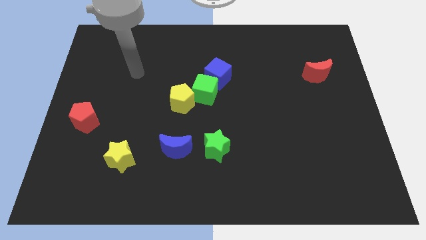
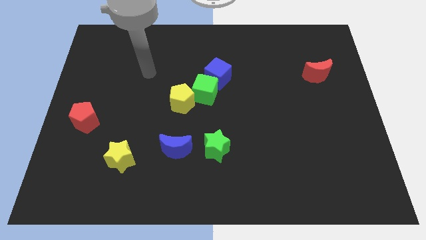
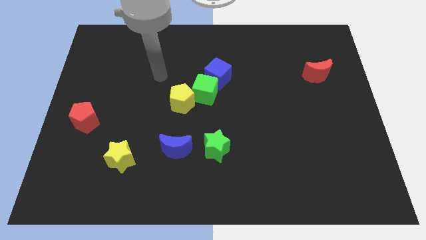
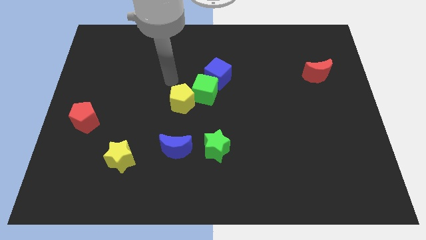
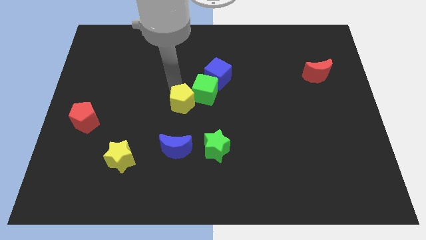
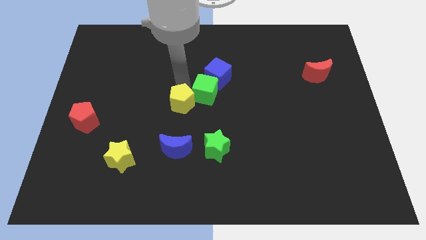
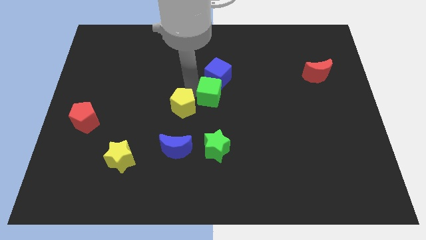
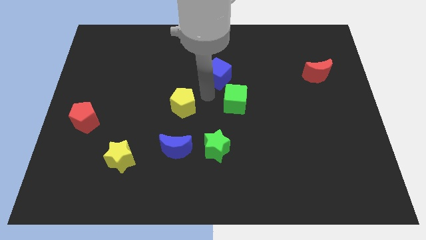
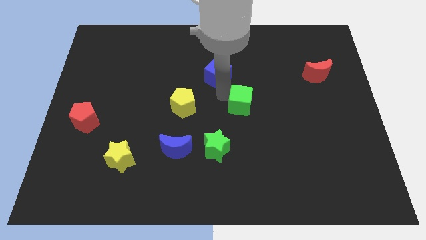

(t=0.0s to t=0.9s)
pull the blue cube apart from the green cube

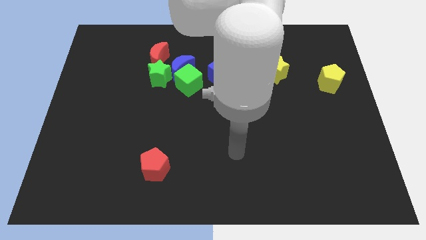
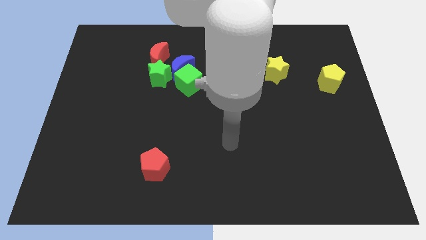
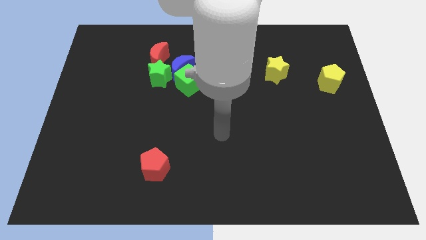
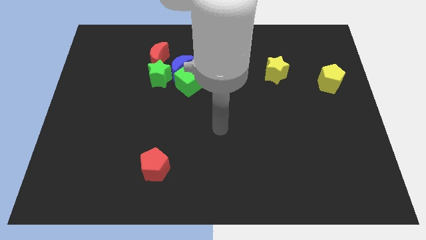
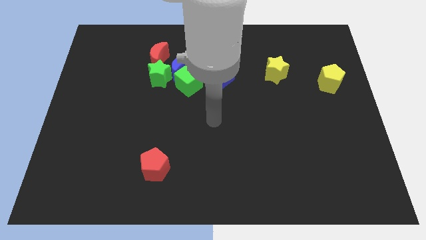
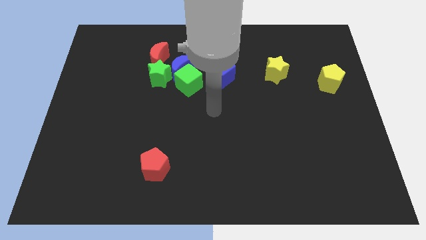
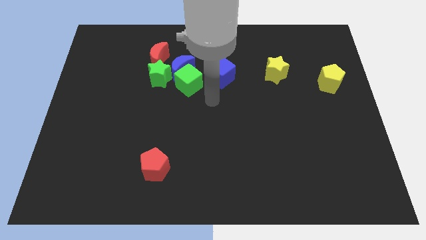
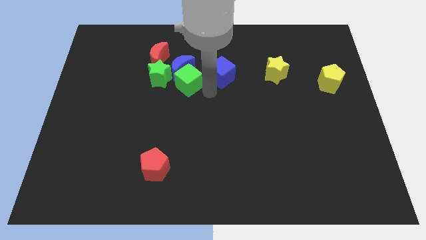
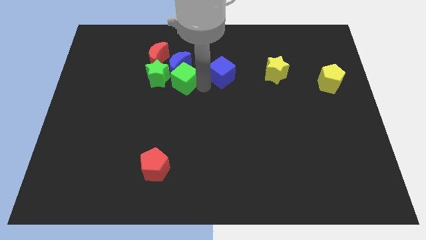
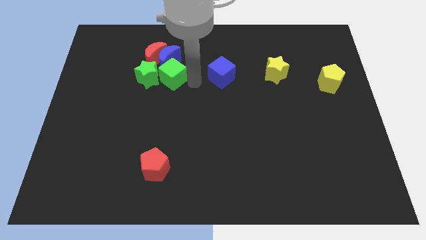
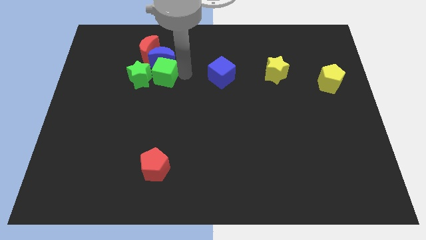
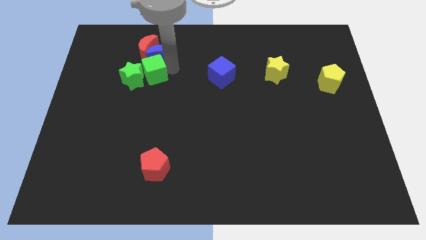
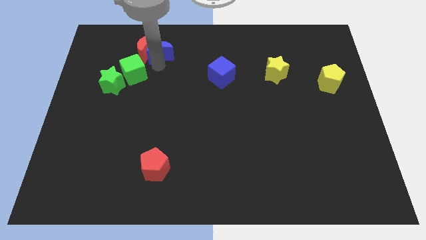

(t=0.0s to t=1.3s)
separate the green star from the blue moon, red moon, and green cube

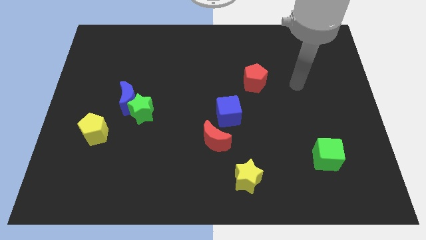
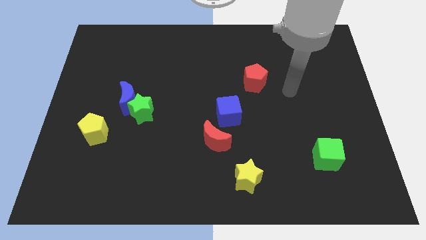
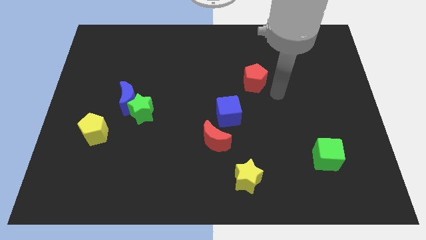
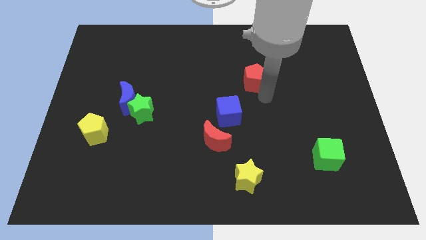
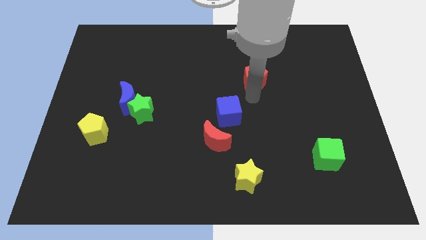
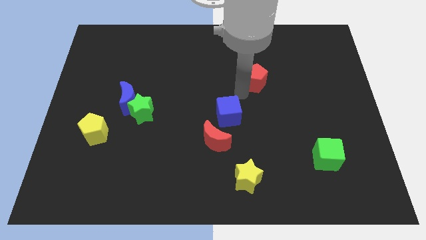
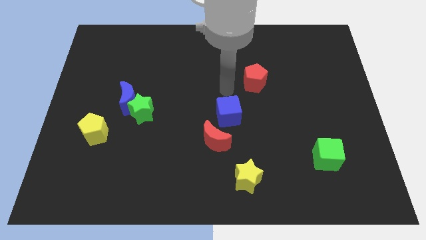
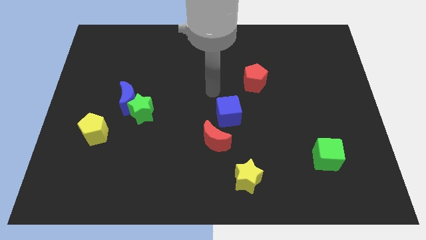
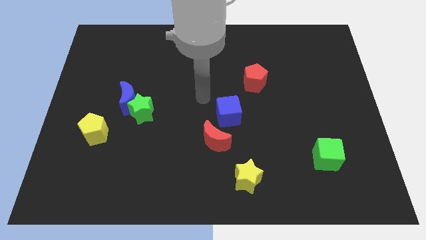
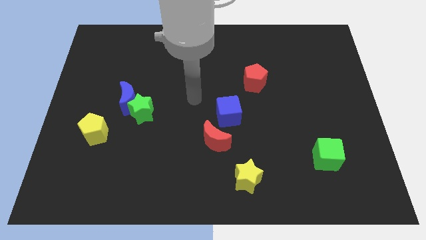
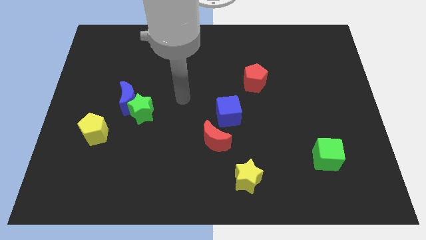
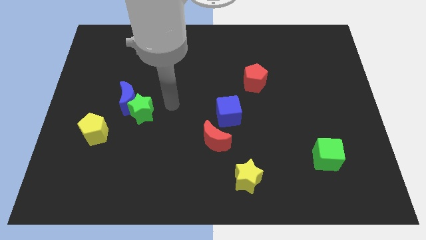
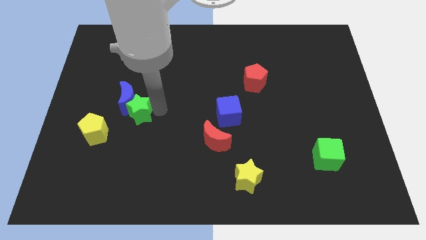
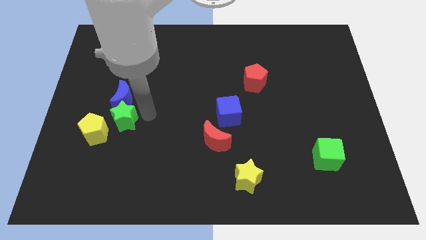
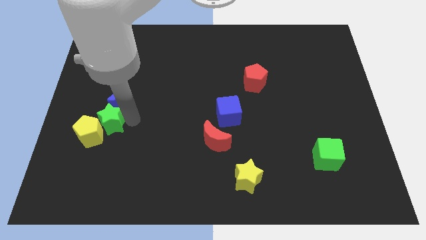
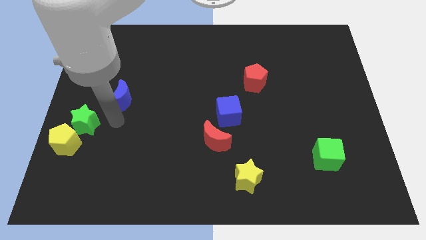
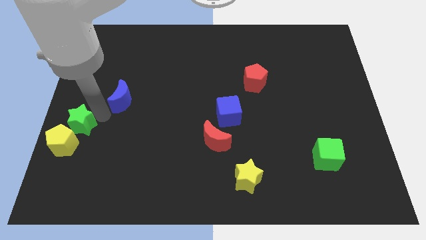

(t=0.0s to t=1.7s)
move the blue moon away from the green star

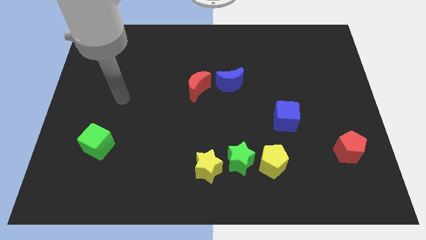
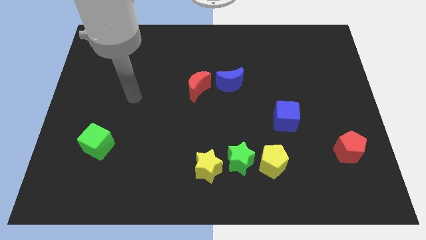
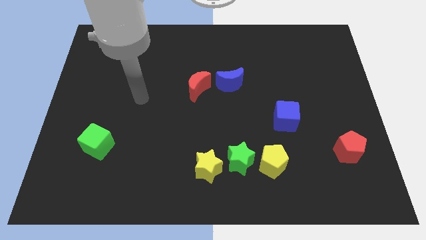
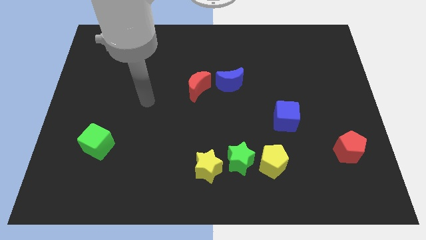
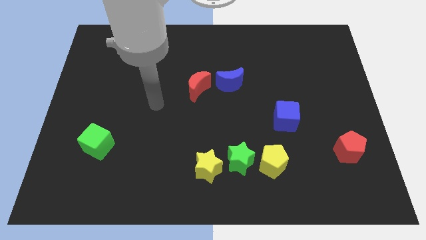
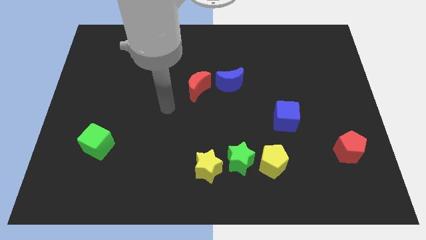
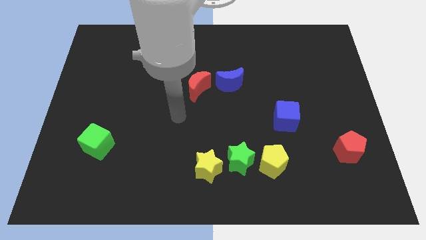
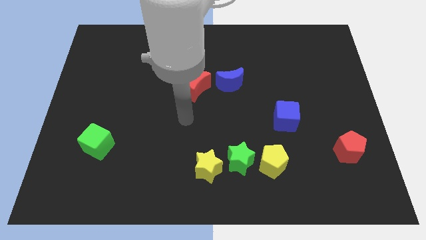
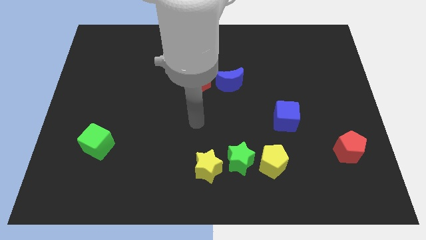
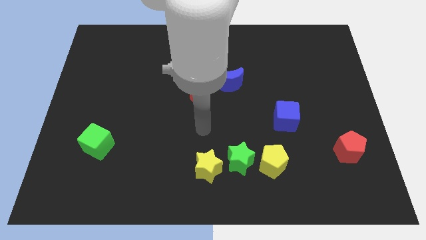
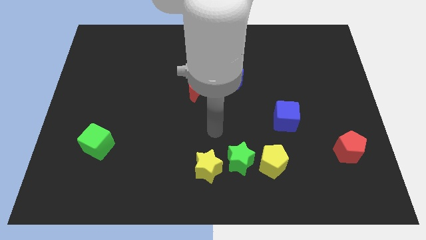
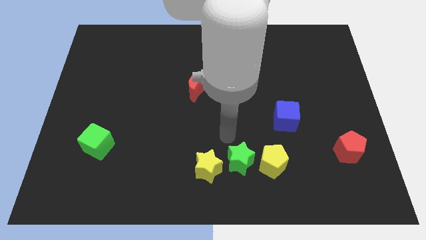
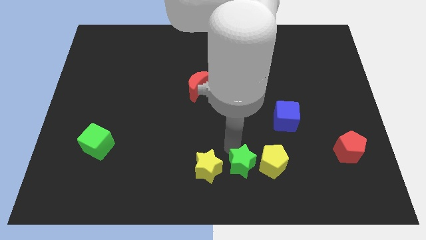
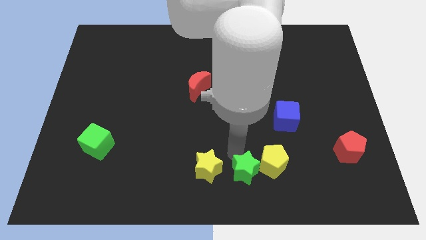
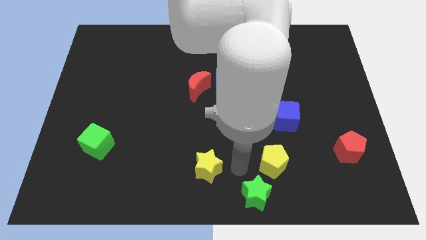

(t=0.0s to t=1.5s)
pull the yellow star apart from the green star

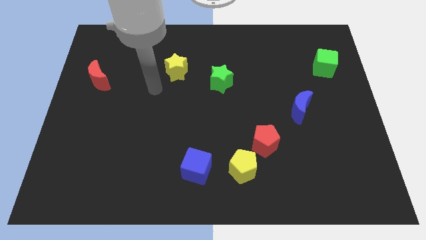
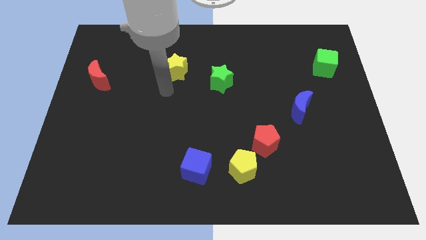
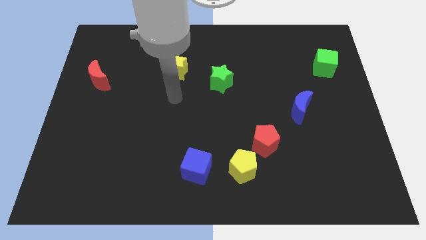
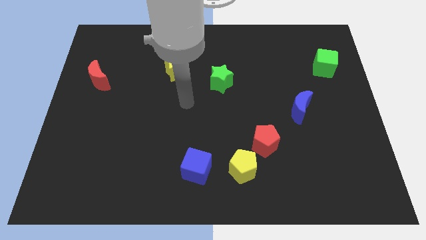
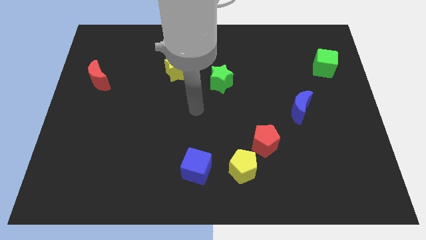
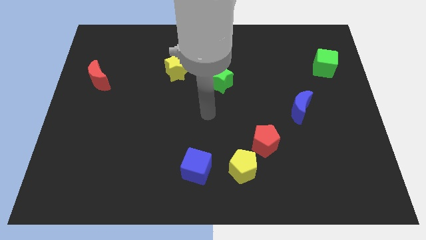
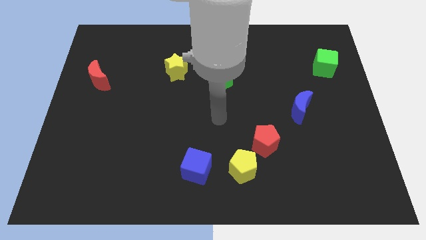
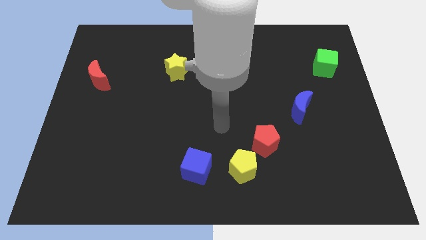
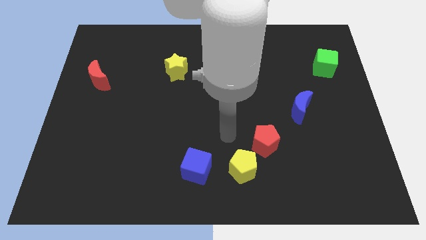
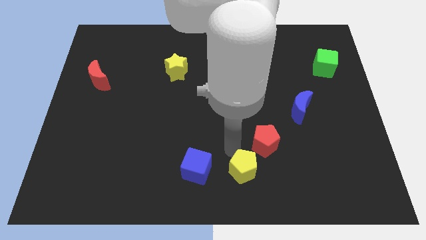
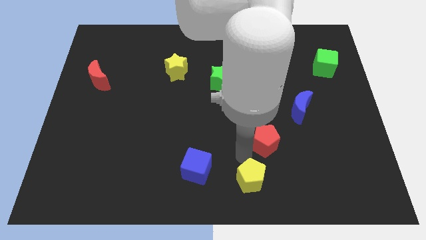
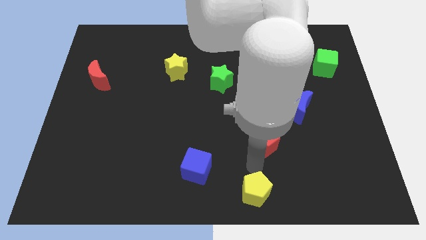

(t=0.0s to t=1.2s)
move the red pentagon away from the yellow pentagon

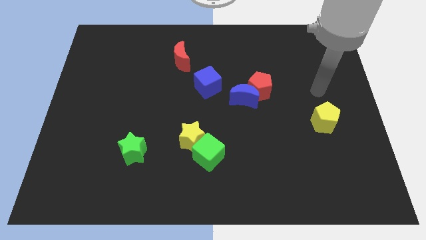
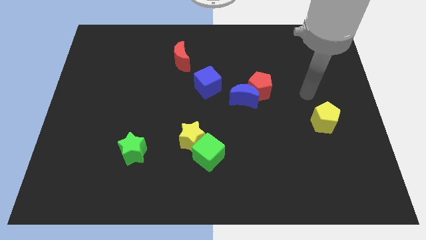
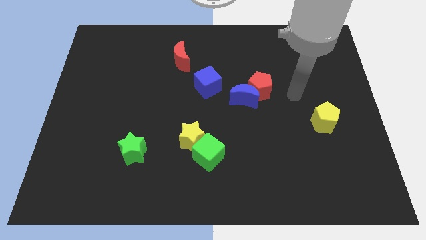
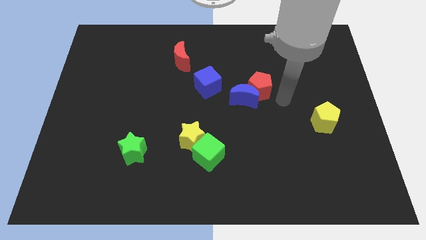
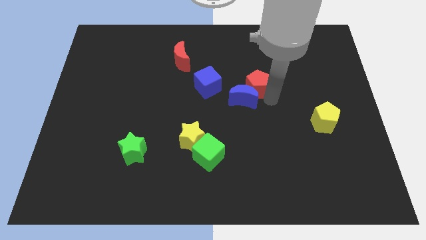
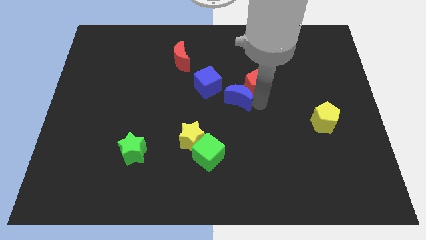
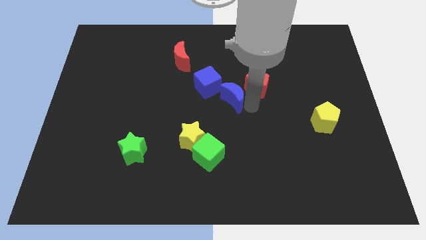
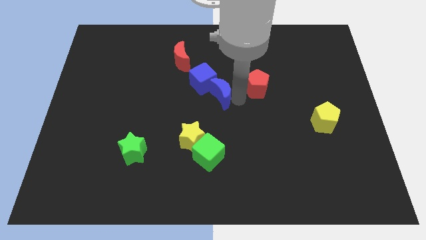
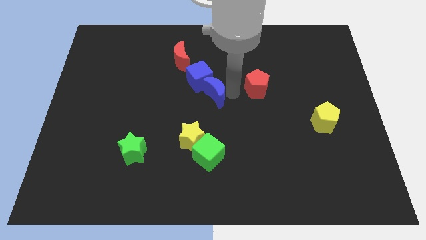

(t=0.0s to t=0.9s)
separate the red pentagon from the blue moon

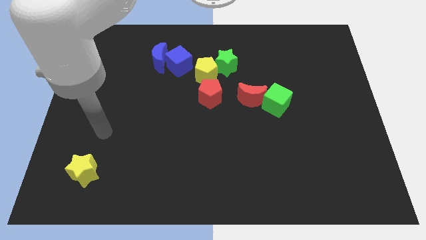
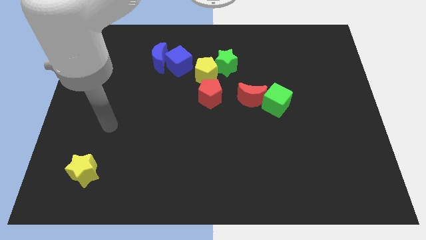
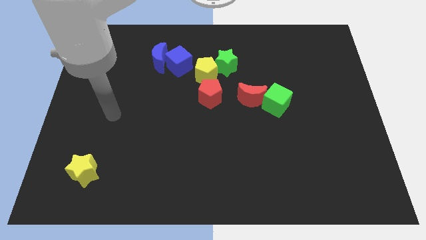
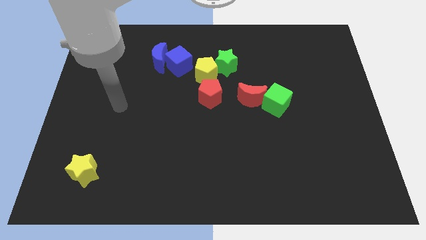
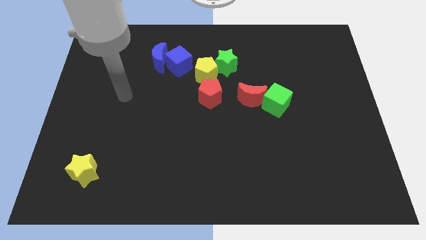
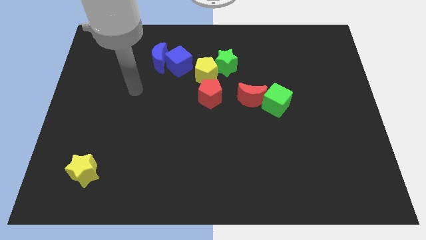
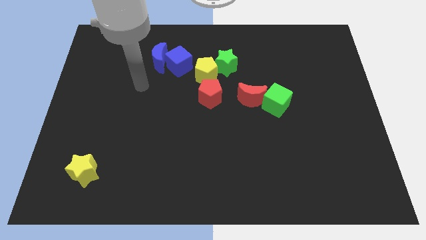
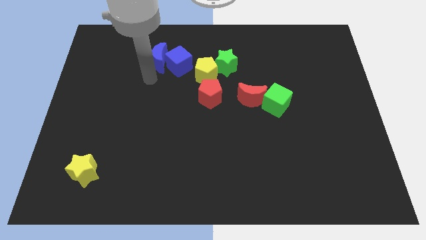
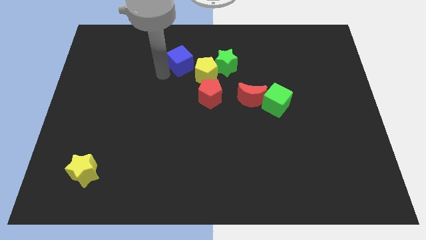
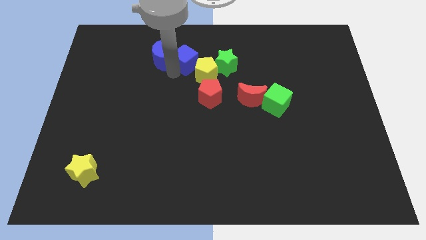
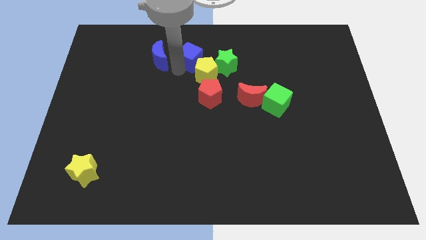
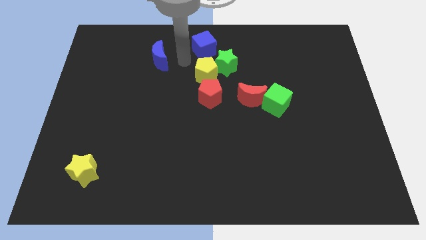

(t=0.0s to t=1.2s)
move the blue moon away from the blue cube

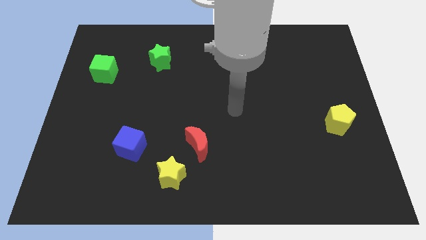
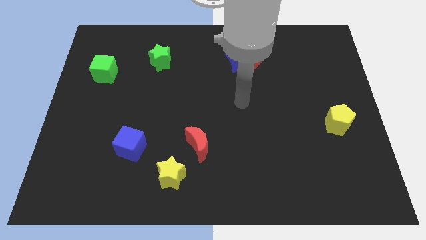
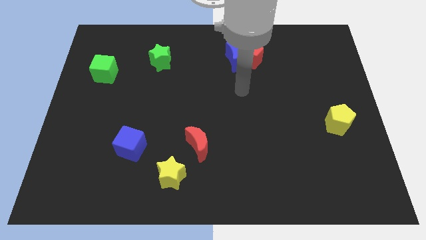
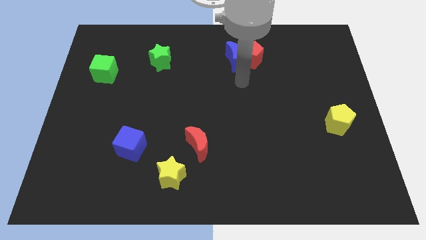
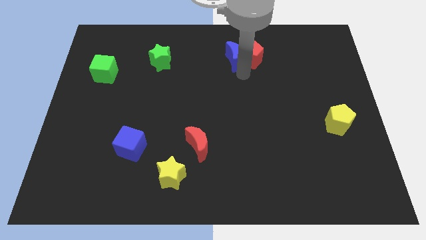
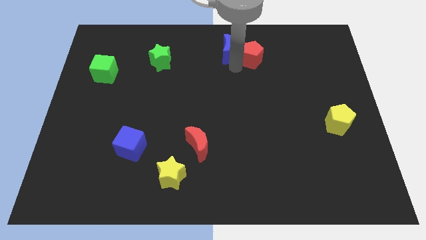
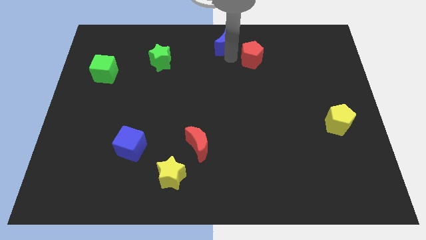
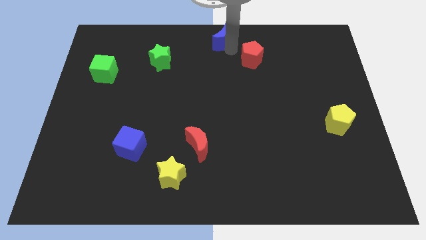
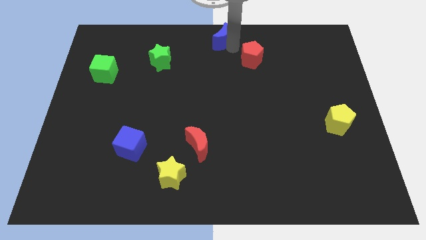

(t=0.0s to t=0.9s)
pull the red pentagon apart from the blue moon
